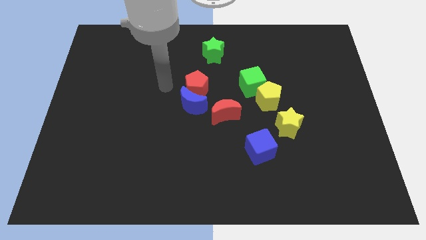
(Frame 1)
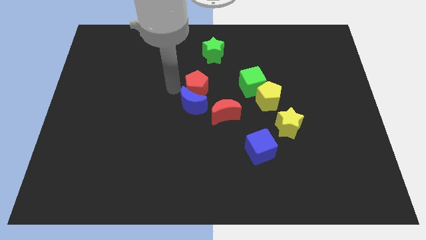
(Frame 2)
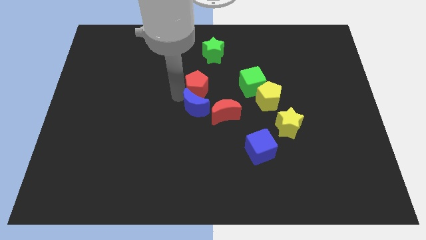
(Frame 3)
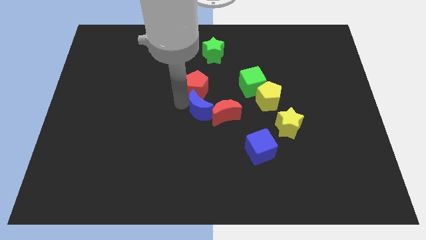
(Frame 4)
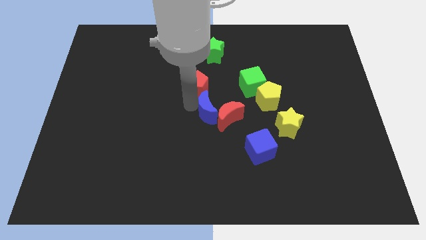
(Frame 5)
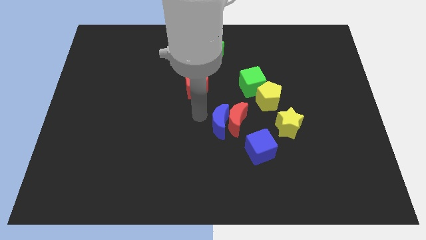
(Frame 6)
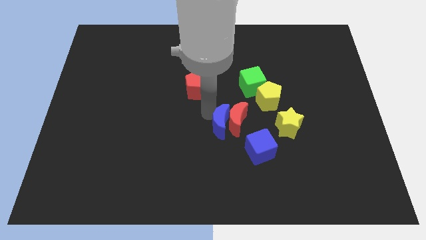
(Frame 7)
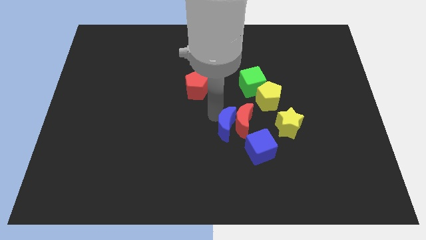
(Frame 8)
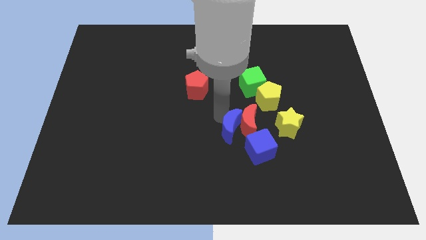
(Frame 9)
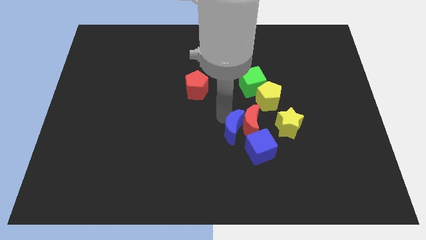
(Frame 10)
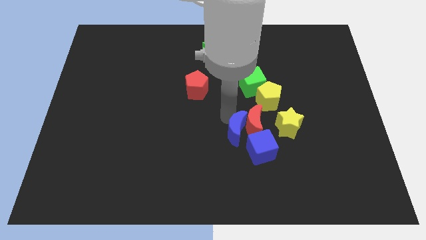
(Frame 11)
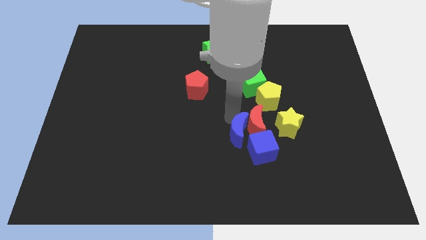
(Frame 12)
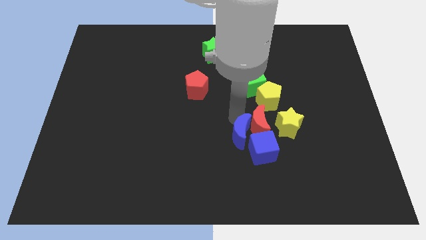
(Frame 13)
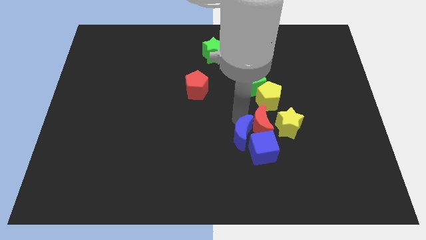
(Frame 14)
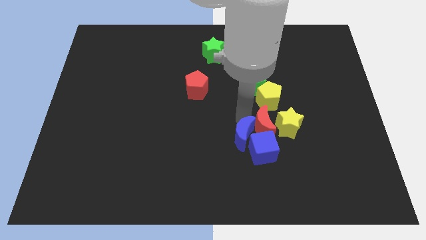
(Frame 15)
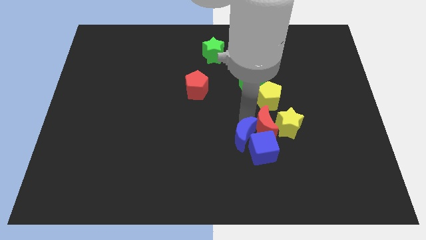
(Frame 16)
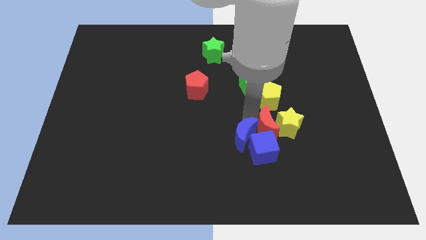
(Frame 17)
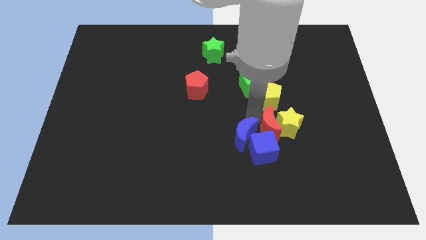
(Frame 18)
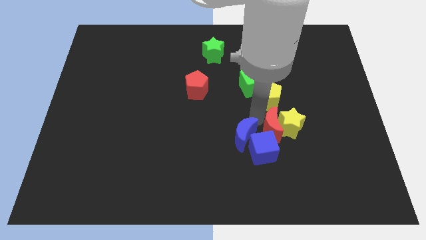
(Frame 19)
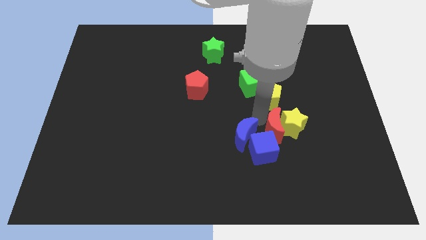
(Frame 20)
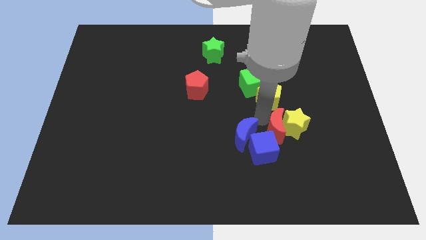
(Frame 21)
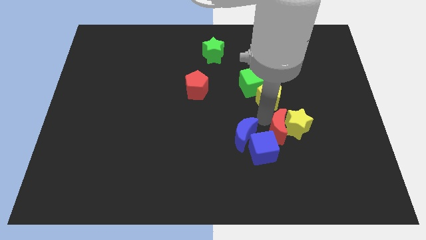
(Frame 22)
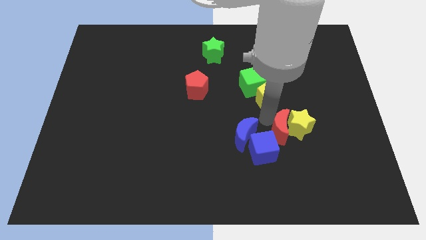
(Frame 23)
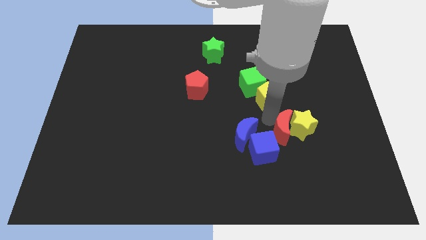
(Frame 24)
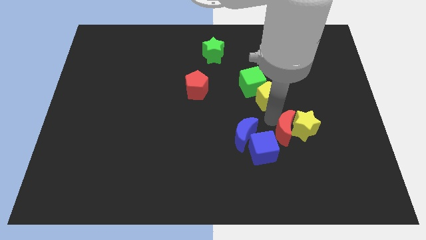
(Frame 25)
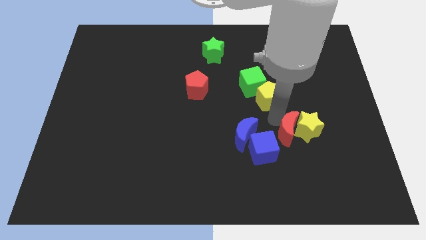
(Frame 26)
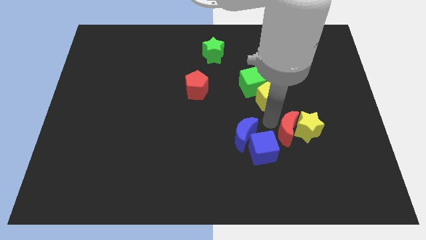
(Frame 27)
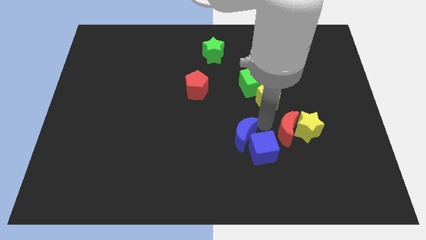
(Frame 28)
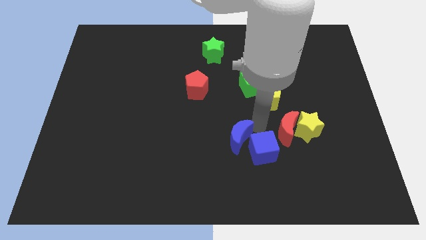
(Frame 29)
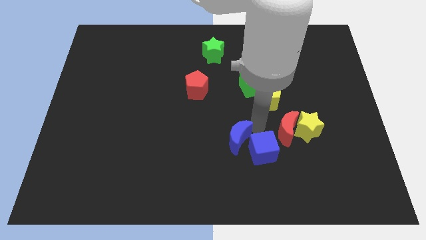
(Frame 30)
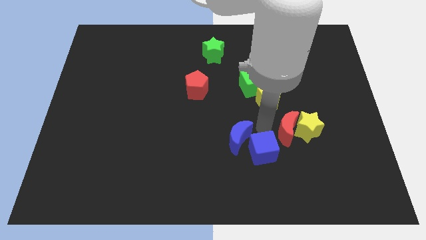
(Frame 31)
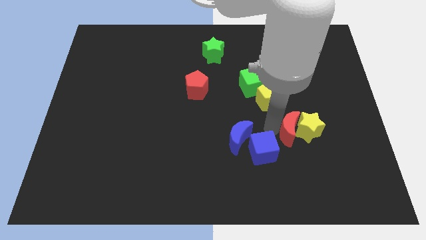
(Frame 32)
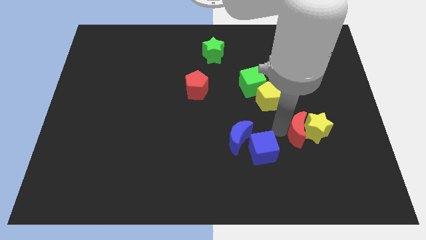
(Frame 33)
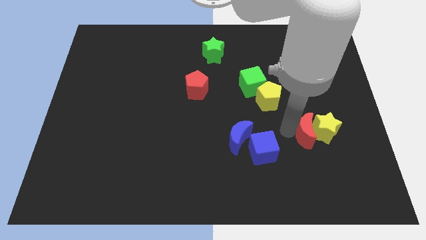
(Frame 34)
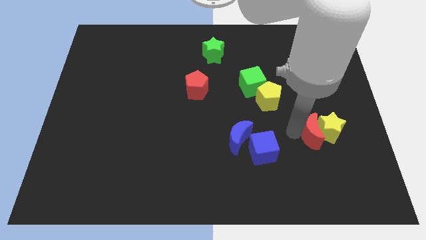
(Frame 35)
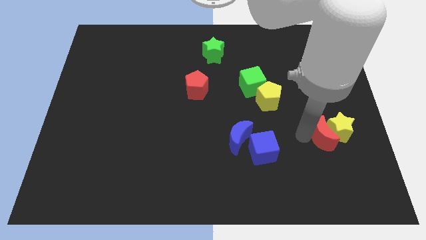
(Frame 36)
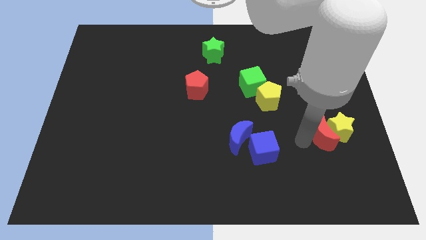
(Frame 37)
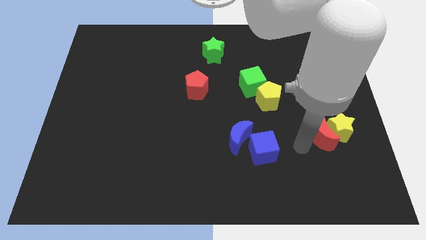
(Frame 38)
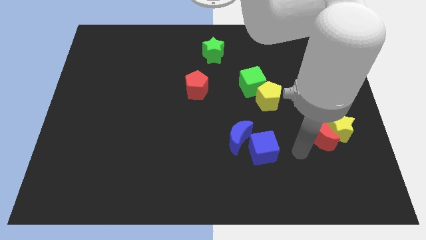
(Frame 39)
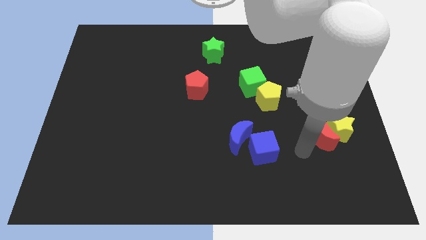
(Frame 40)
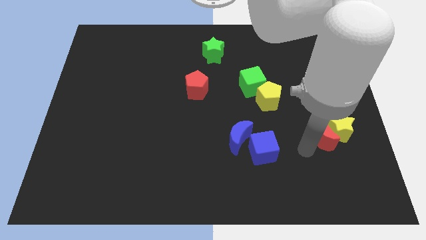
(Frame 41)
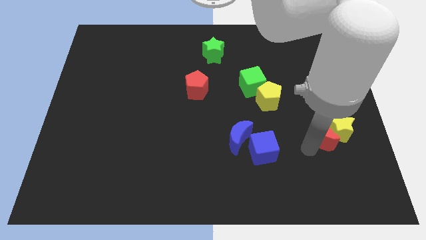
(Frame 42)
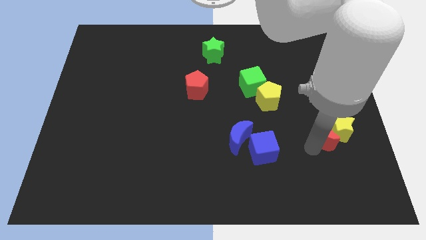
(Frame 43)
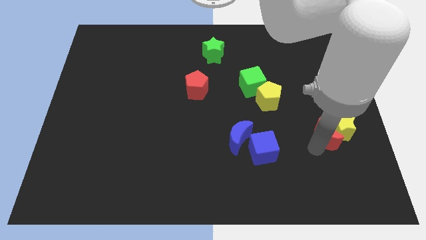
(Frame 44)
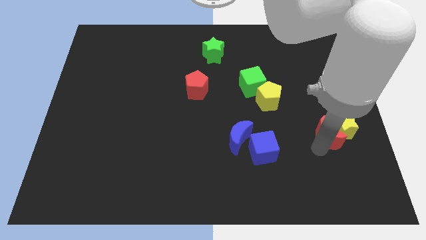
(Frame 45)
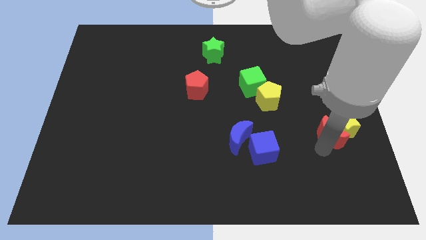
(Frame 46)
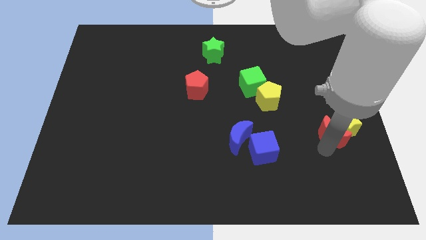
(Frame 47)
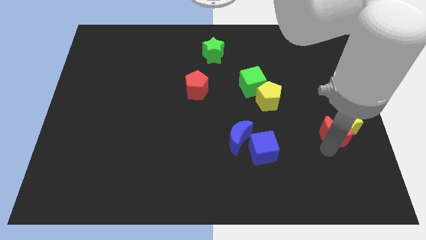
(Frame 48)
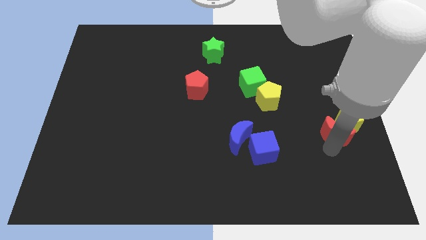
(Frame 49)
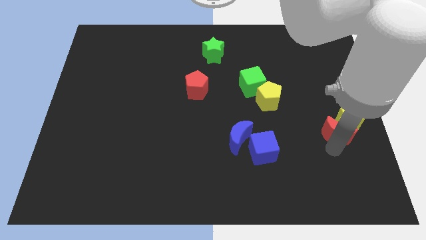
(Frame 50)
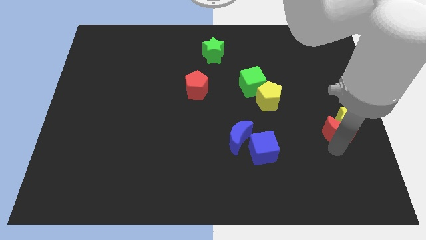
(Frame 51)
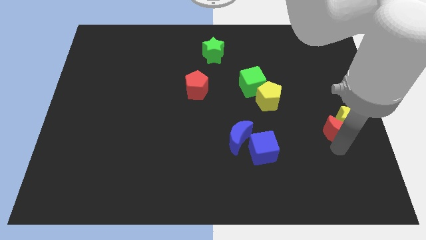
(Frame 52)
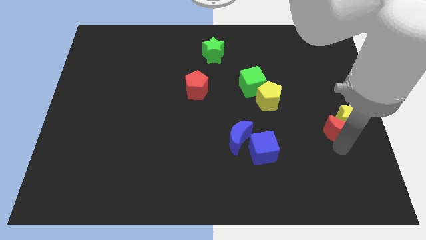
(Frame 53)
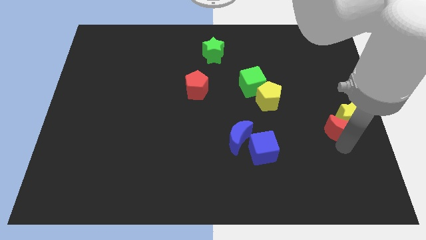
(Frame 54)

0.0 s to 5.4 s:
put the red moon to the center right

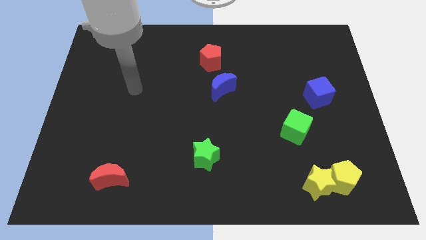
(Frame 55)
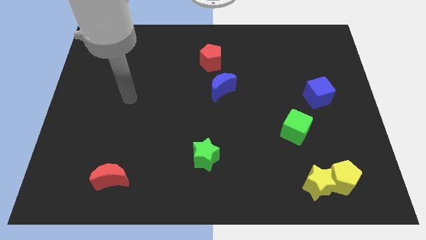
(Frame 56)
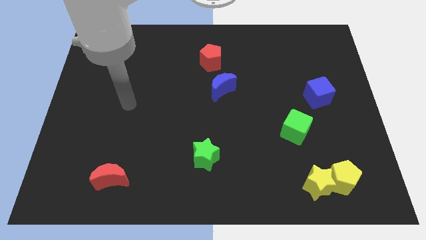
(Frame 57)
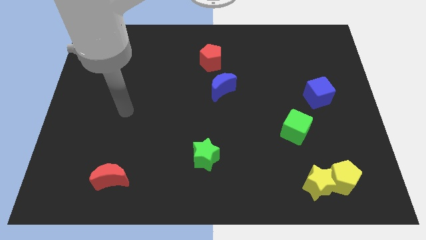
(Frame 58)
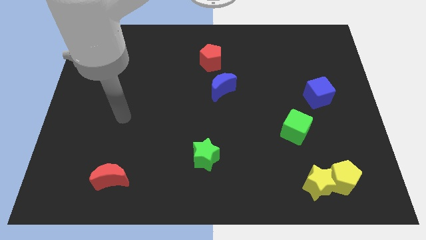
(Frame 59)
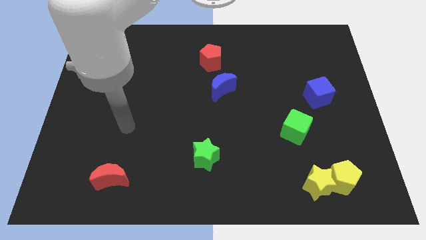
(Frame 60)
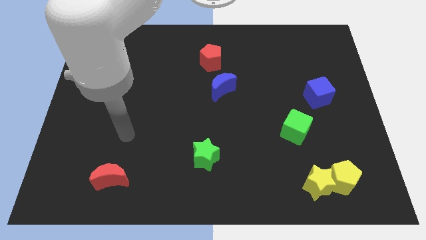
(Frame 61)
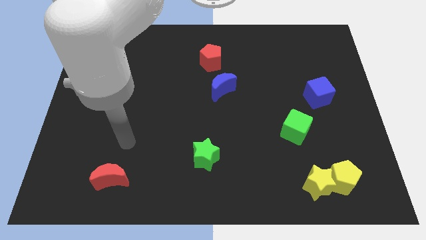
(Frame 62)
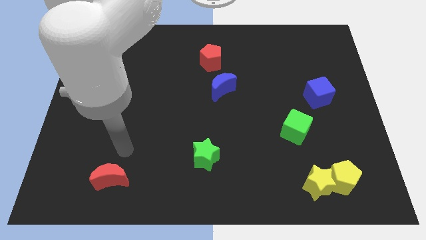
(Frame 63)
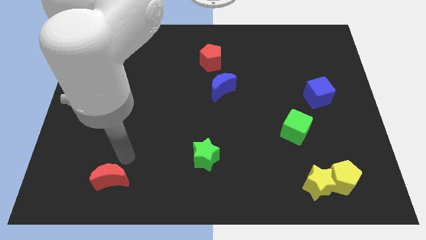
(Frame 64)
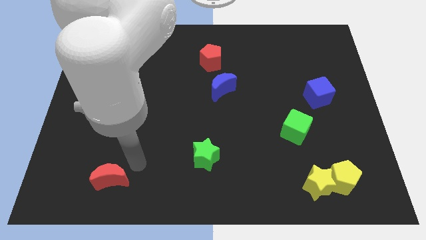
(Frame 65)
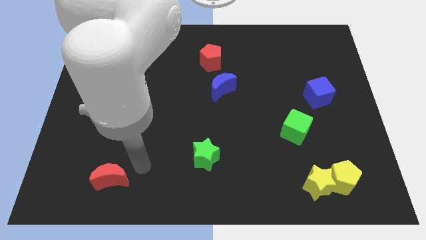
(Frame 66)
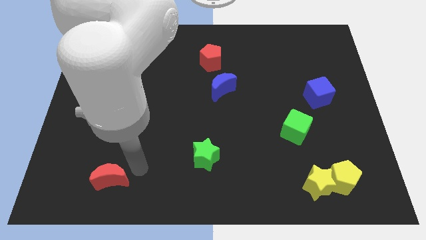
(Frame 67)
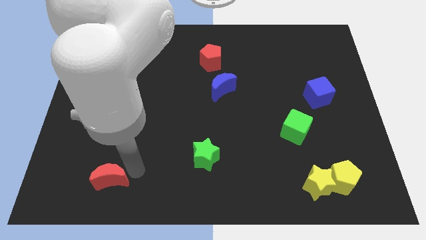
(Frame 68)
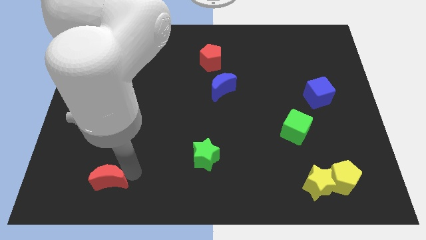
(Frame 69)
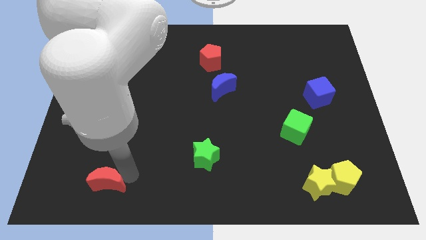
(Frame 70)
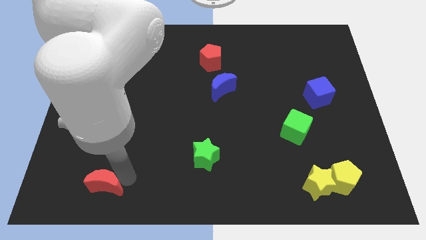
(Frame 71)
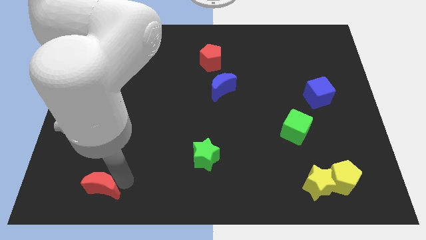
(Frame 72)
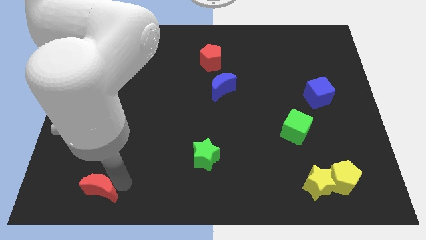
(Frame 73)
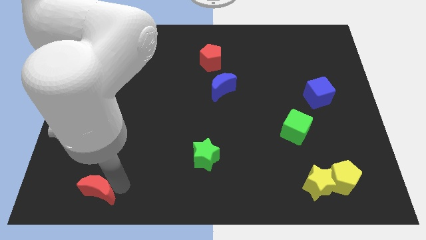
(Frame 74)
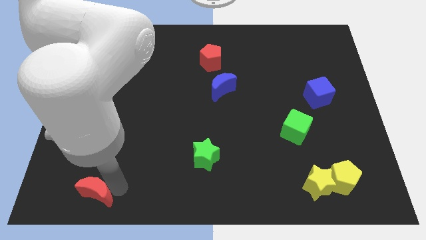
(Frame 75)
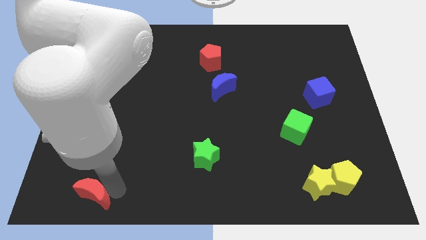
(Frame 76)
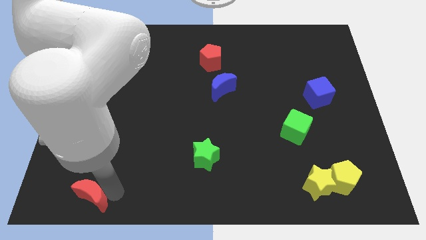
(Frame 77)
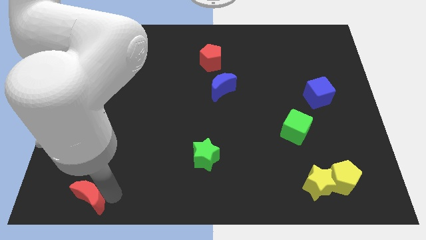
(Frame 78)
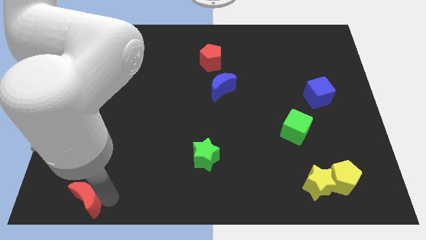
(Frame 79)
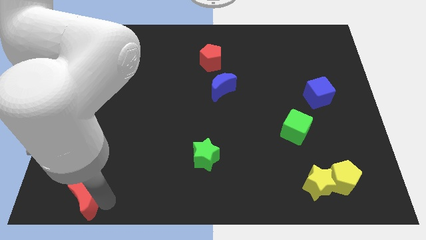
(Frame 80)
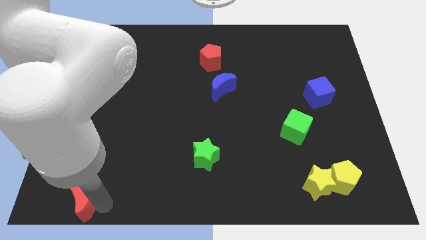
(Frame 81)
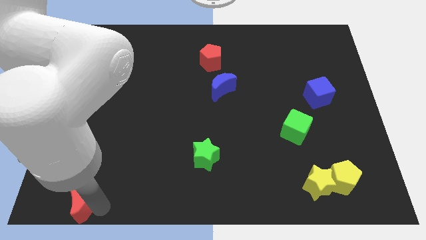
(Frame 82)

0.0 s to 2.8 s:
push the red moon to the bottom left of the board
